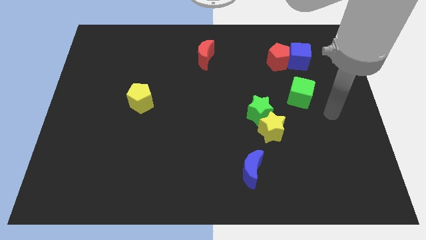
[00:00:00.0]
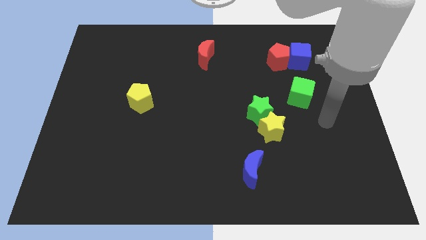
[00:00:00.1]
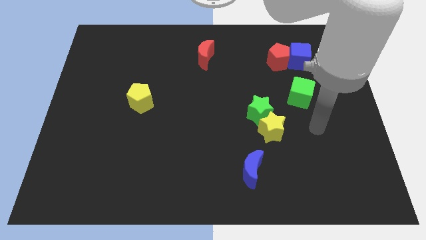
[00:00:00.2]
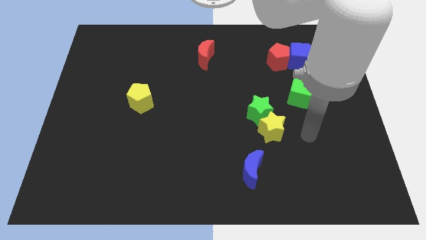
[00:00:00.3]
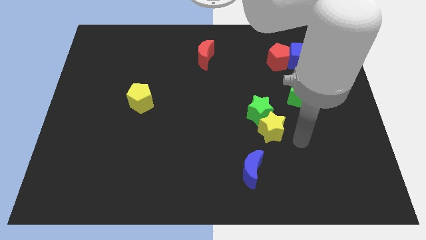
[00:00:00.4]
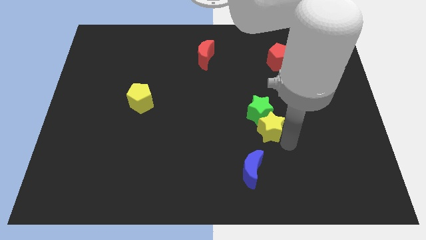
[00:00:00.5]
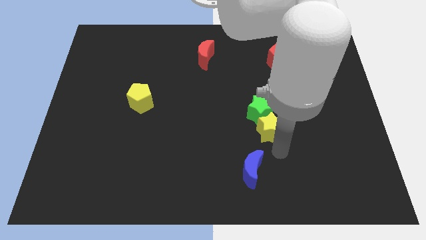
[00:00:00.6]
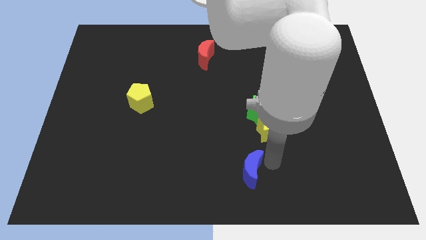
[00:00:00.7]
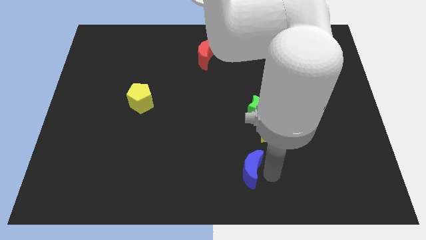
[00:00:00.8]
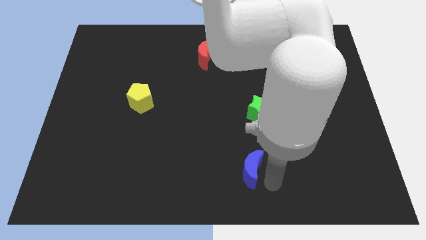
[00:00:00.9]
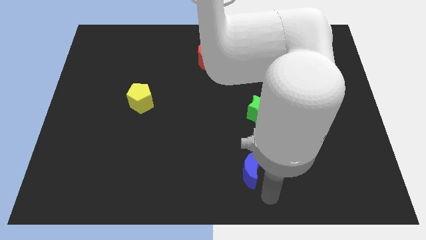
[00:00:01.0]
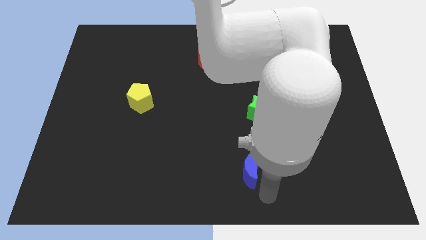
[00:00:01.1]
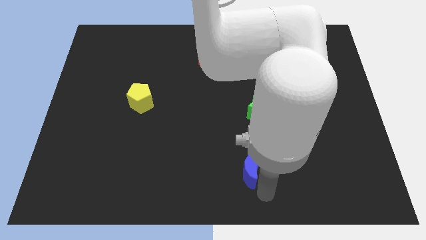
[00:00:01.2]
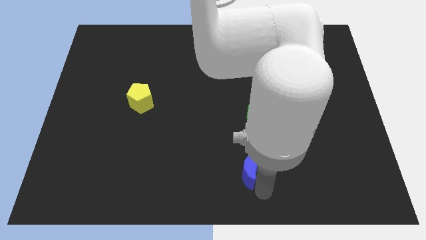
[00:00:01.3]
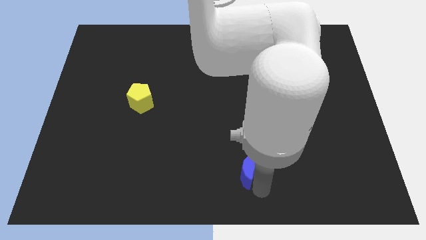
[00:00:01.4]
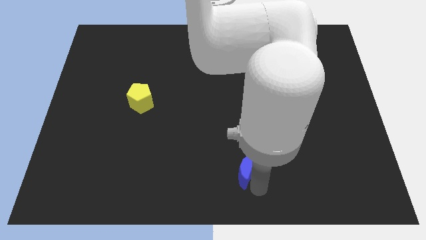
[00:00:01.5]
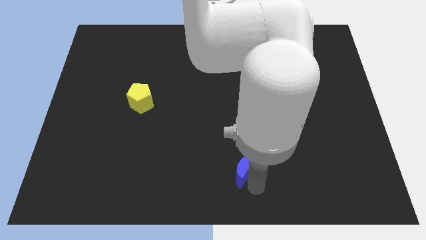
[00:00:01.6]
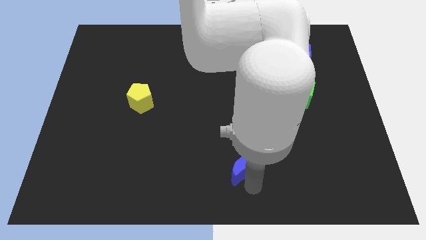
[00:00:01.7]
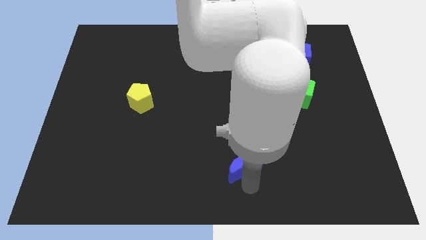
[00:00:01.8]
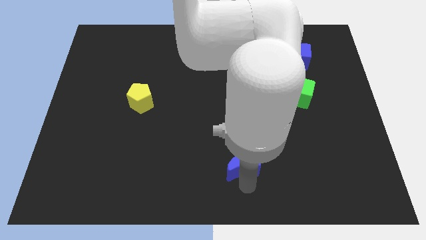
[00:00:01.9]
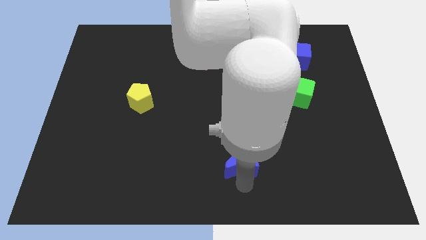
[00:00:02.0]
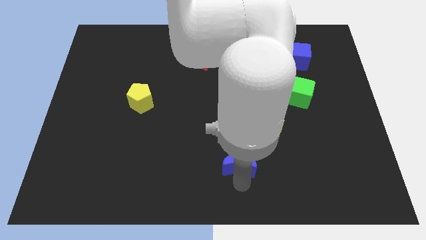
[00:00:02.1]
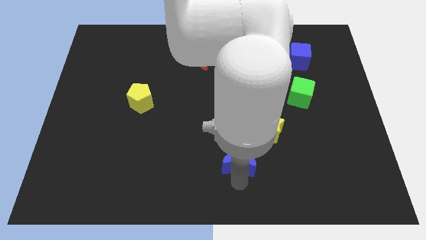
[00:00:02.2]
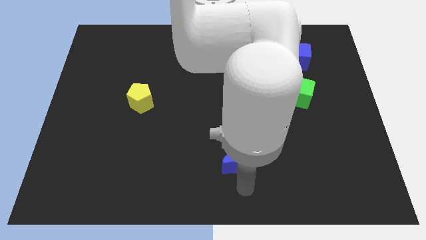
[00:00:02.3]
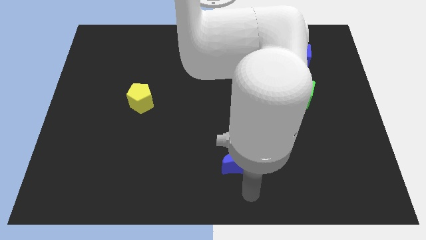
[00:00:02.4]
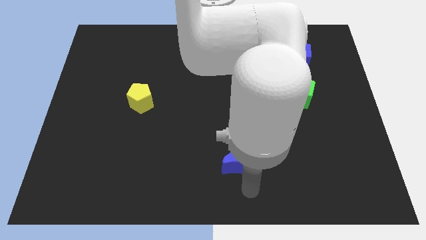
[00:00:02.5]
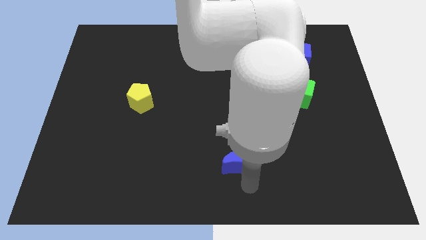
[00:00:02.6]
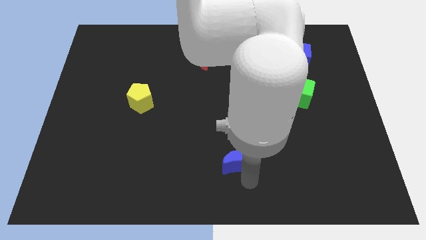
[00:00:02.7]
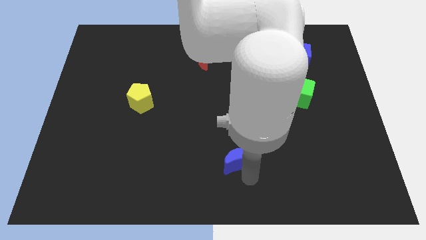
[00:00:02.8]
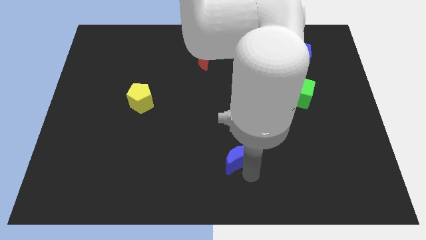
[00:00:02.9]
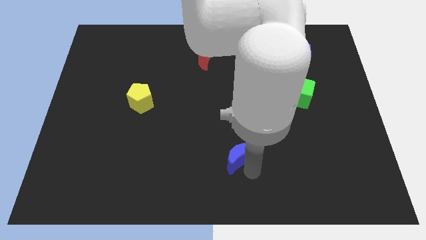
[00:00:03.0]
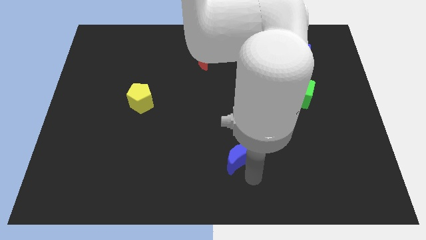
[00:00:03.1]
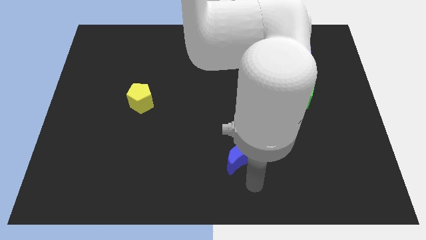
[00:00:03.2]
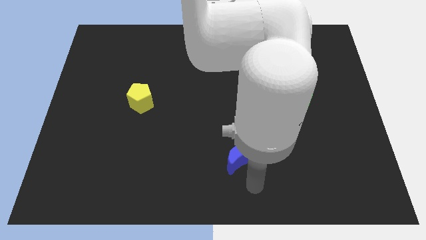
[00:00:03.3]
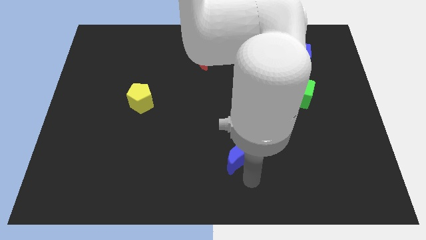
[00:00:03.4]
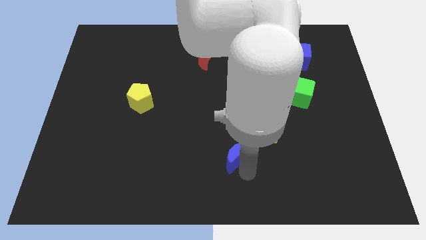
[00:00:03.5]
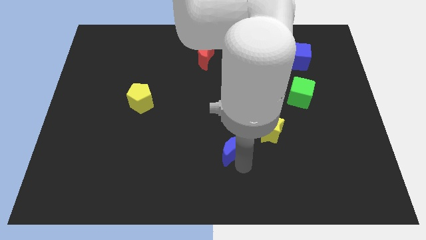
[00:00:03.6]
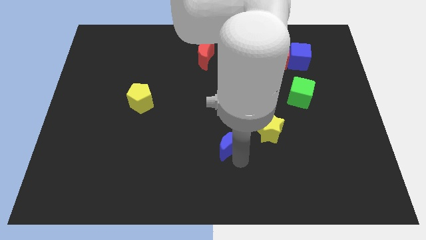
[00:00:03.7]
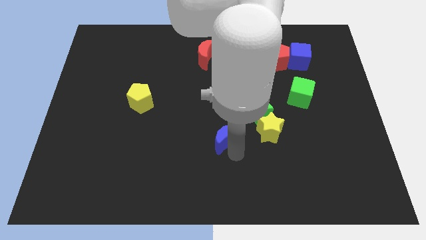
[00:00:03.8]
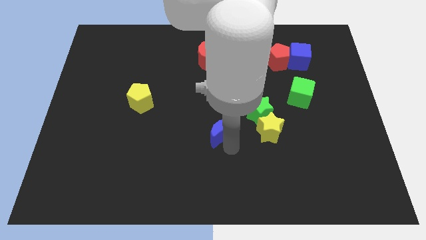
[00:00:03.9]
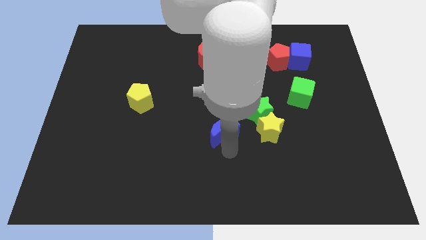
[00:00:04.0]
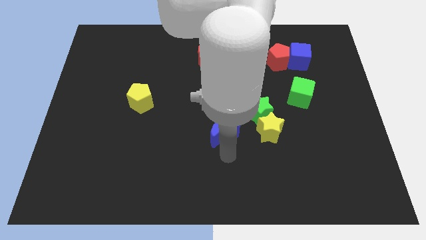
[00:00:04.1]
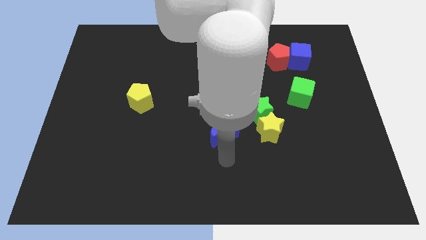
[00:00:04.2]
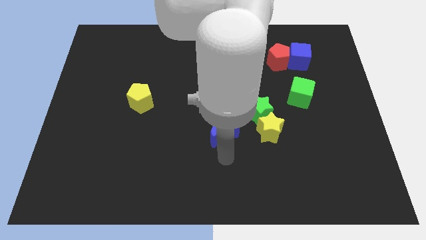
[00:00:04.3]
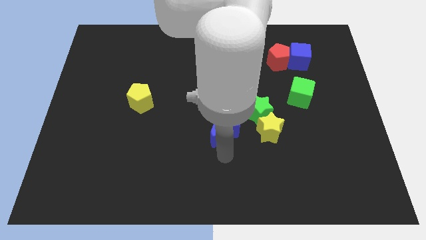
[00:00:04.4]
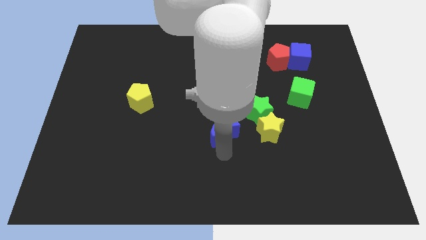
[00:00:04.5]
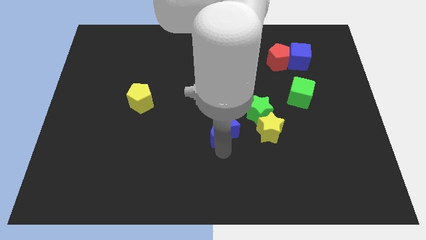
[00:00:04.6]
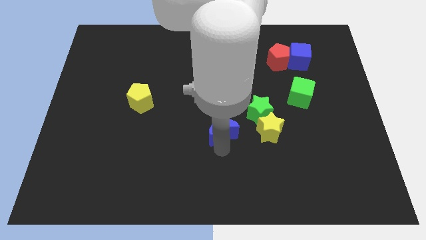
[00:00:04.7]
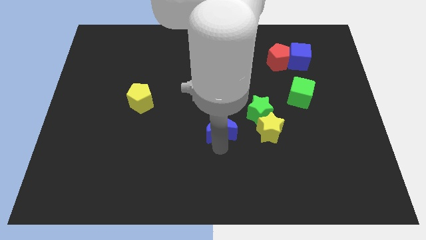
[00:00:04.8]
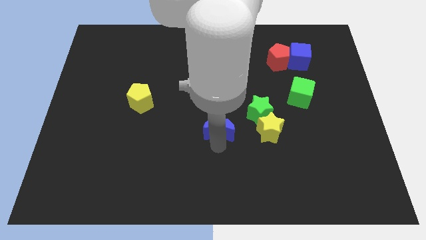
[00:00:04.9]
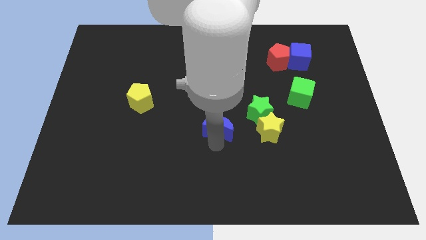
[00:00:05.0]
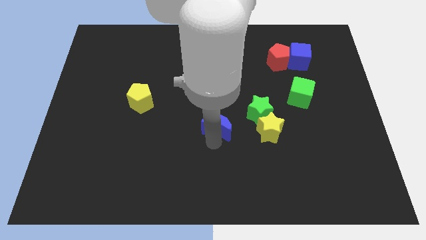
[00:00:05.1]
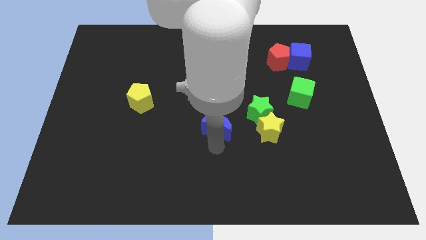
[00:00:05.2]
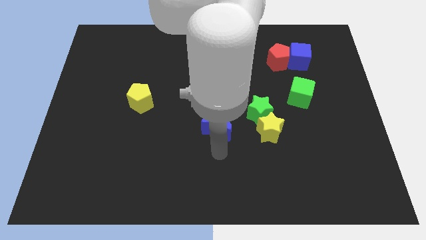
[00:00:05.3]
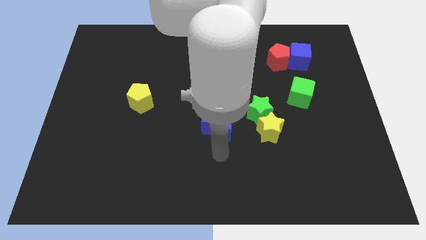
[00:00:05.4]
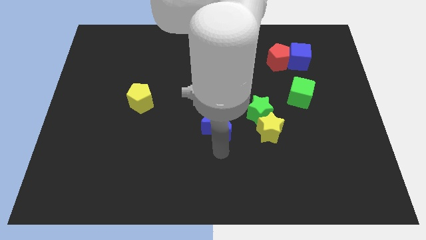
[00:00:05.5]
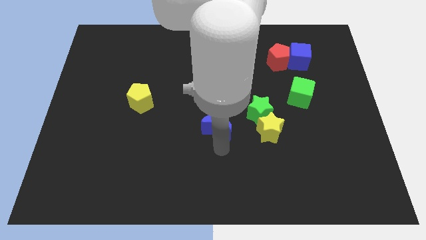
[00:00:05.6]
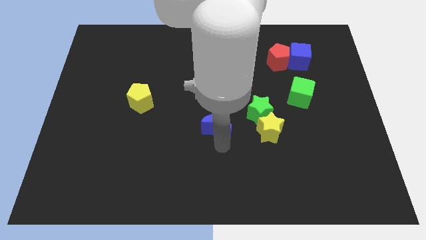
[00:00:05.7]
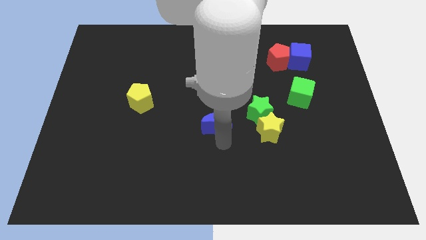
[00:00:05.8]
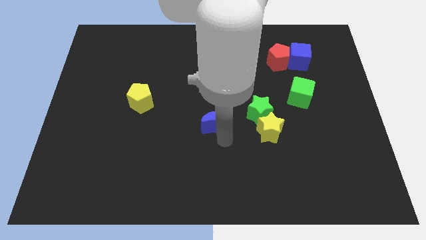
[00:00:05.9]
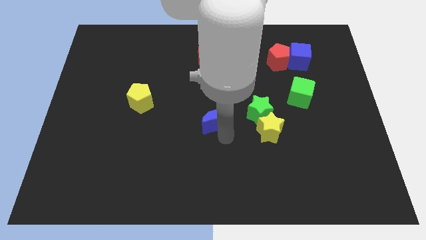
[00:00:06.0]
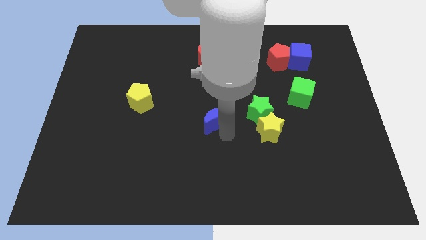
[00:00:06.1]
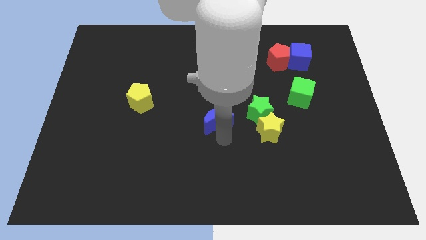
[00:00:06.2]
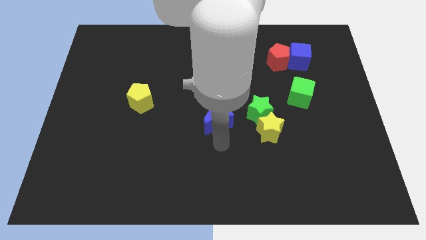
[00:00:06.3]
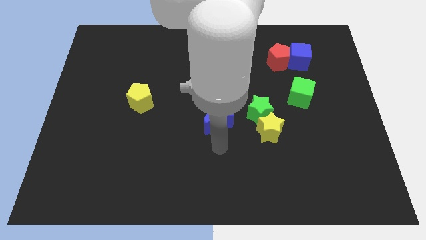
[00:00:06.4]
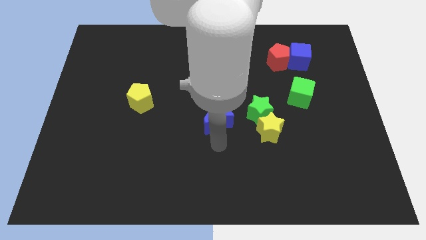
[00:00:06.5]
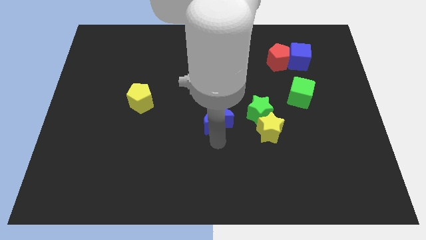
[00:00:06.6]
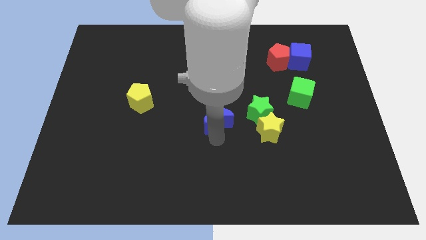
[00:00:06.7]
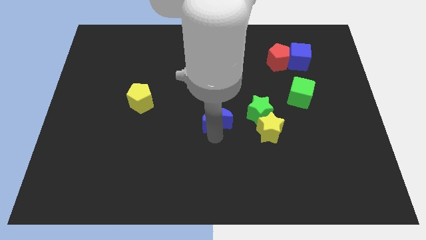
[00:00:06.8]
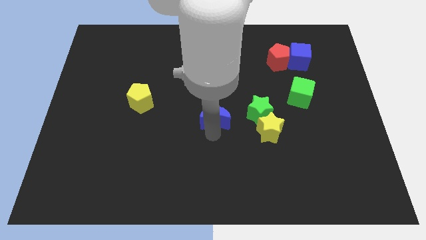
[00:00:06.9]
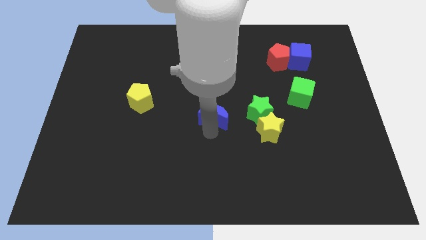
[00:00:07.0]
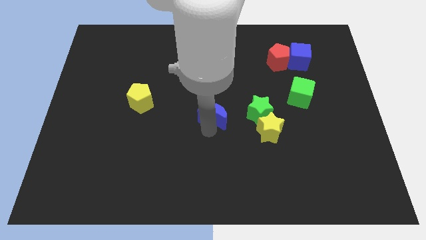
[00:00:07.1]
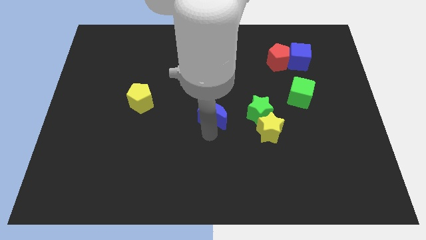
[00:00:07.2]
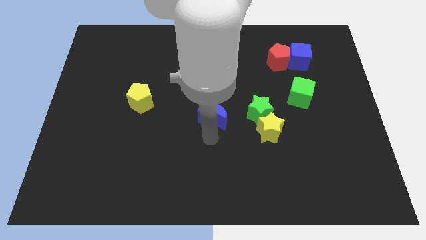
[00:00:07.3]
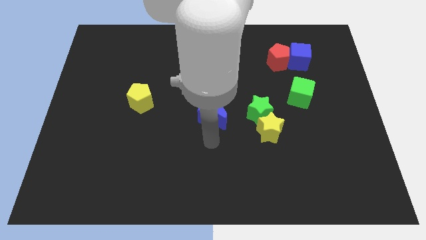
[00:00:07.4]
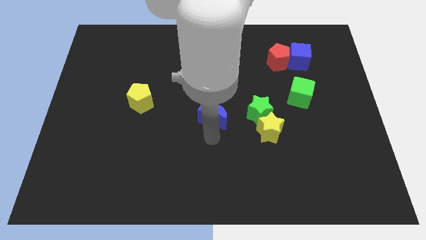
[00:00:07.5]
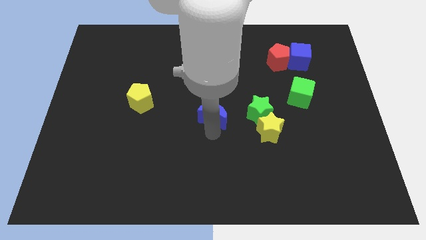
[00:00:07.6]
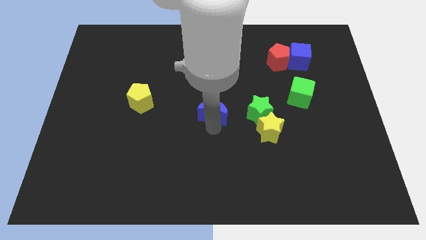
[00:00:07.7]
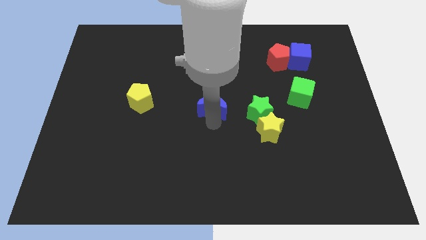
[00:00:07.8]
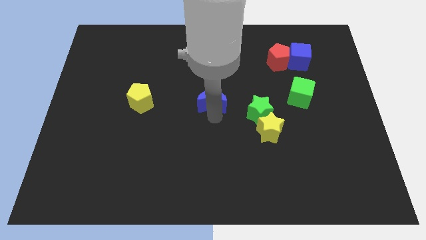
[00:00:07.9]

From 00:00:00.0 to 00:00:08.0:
move the blue moon to the bottom side of the red moon
